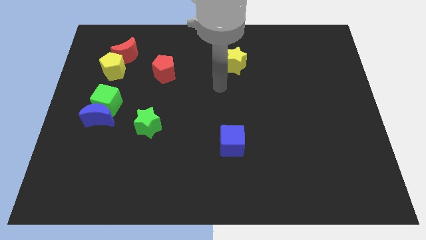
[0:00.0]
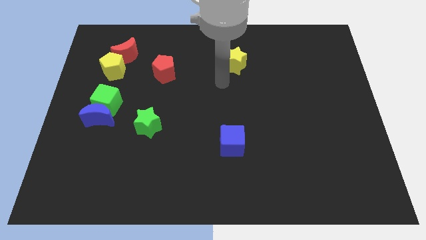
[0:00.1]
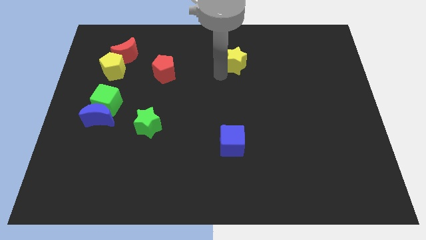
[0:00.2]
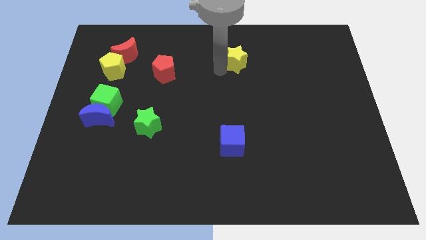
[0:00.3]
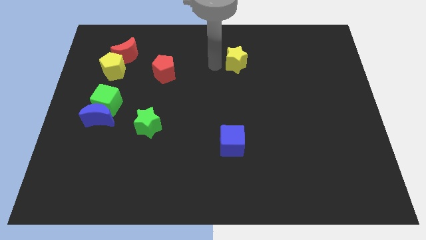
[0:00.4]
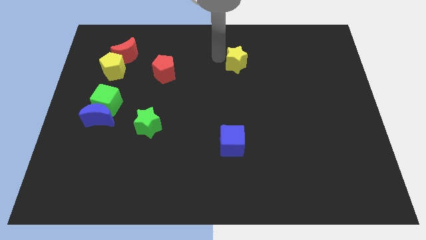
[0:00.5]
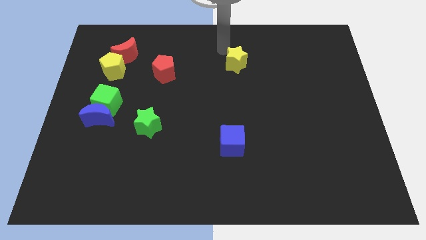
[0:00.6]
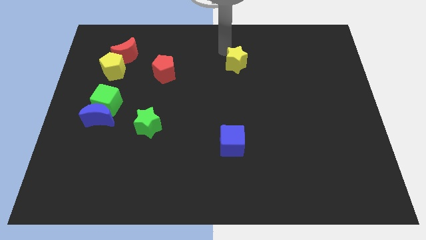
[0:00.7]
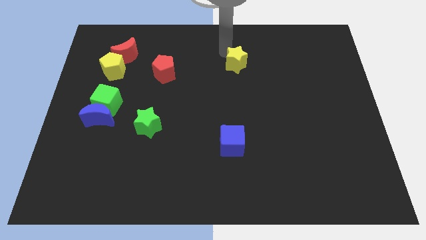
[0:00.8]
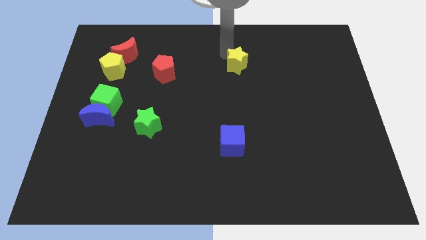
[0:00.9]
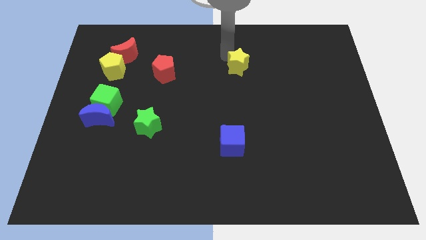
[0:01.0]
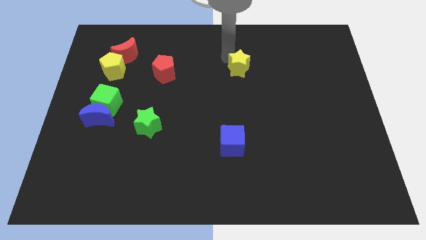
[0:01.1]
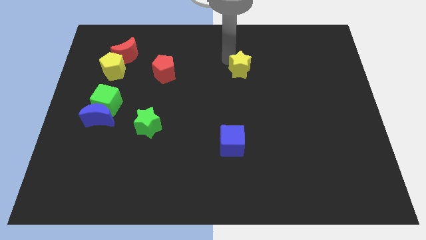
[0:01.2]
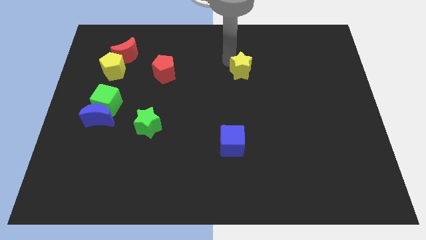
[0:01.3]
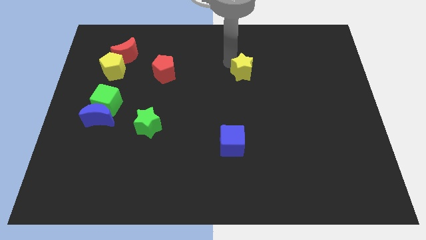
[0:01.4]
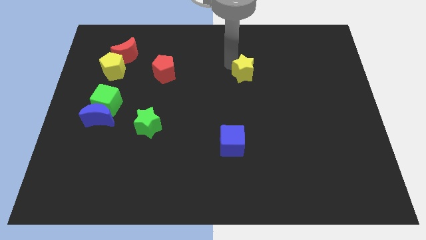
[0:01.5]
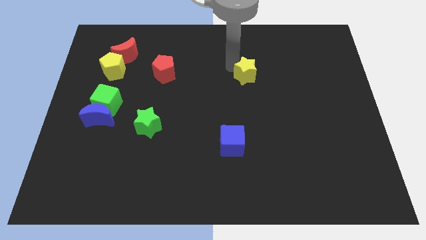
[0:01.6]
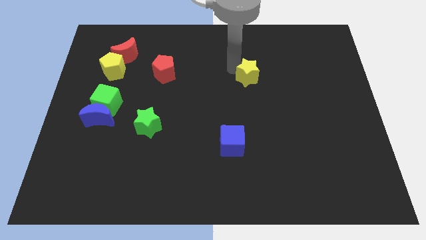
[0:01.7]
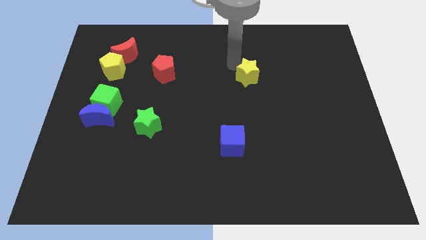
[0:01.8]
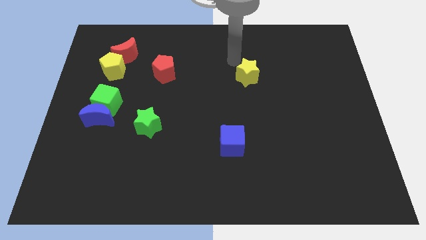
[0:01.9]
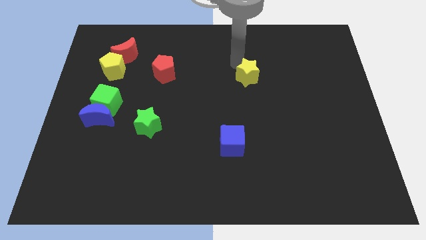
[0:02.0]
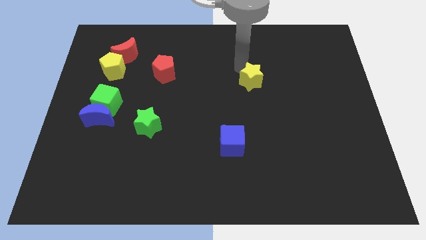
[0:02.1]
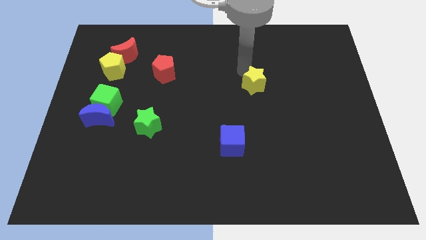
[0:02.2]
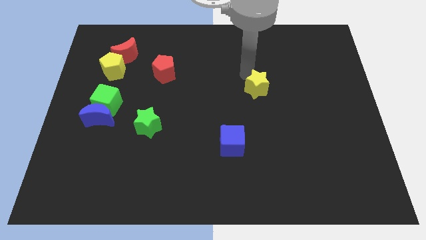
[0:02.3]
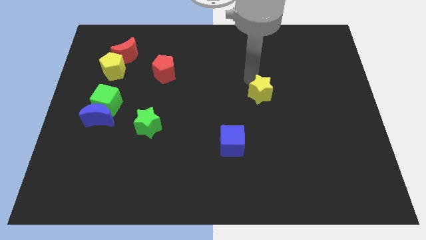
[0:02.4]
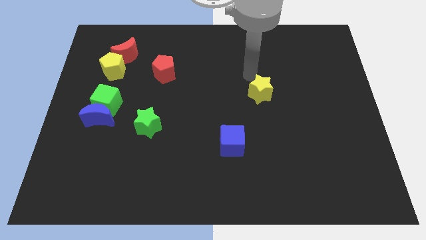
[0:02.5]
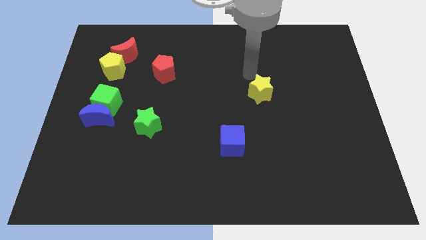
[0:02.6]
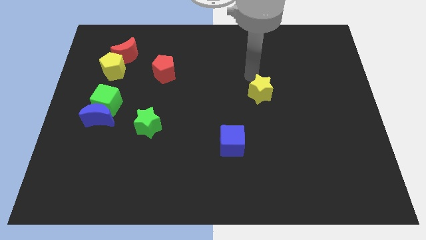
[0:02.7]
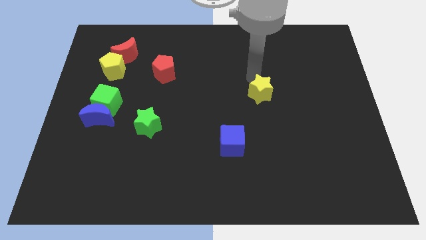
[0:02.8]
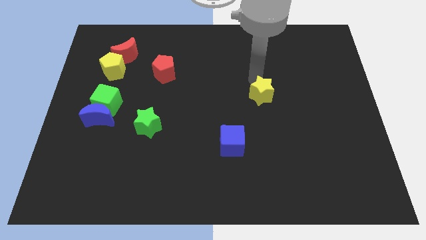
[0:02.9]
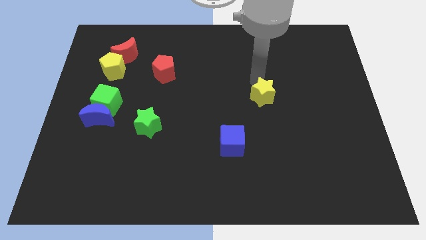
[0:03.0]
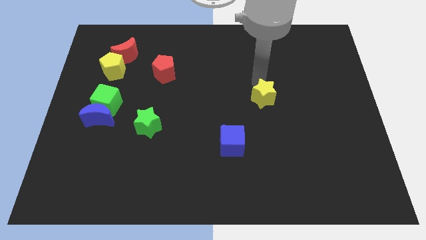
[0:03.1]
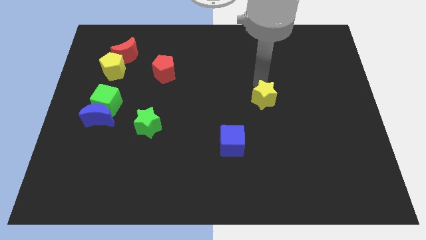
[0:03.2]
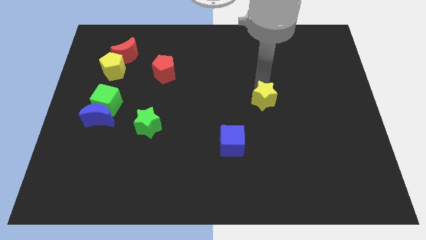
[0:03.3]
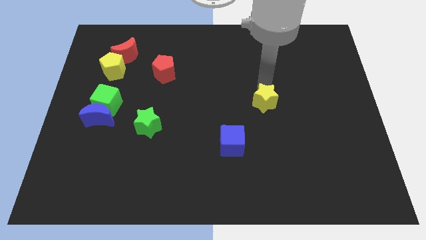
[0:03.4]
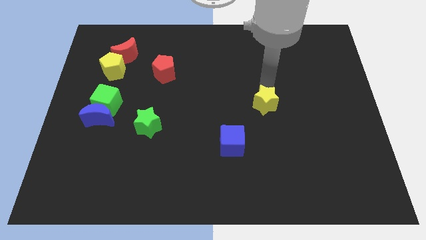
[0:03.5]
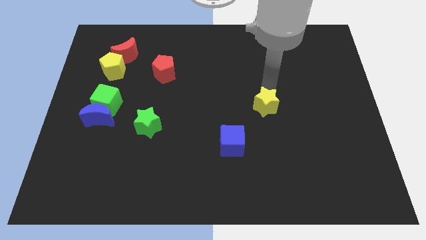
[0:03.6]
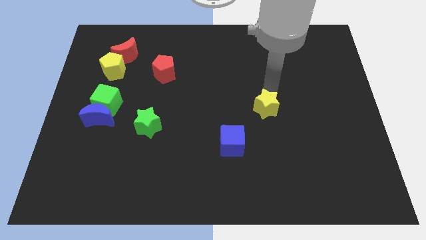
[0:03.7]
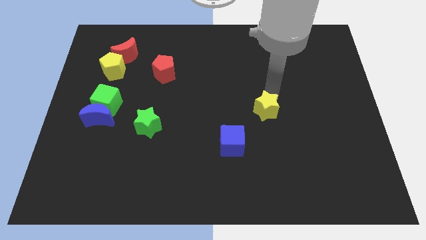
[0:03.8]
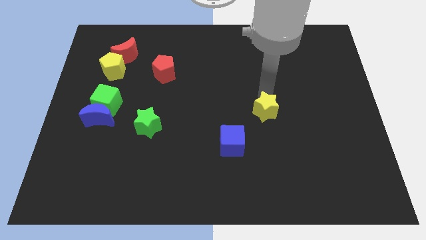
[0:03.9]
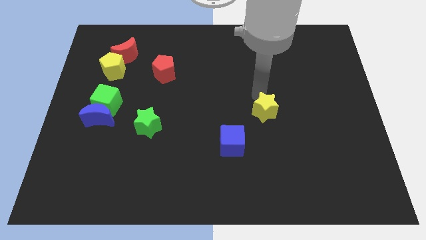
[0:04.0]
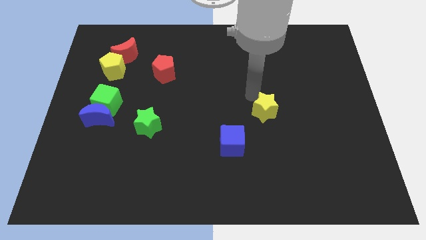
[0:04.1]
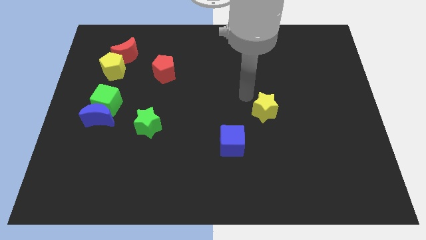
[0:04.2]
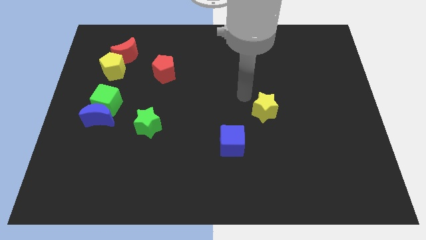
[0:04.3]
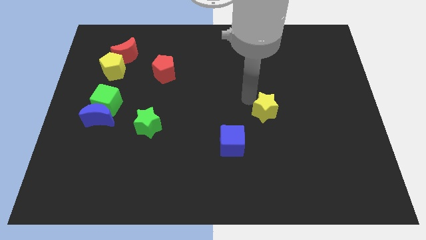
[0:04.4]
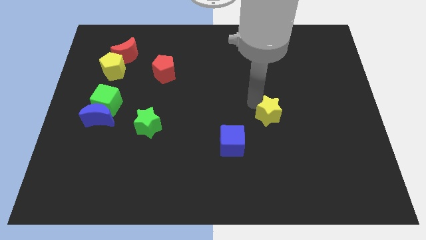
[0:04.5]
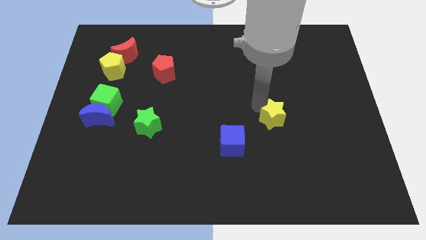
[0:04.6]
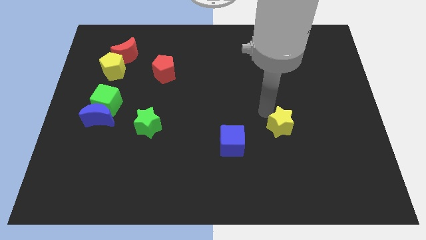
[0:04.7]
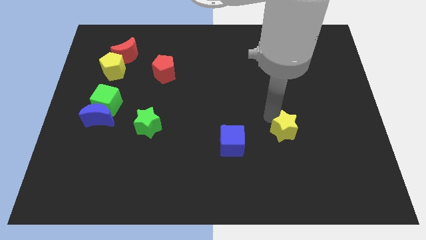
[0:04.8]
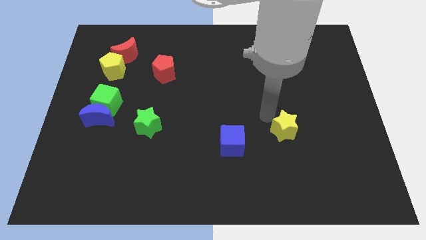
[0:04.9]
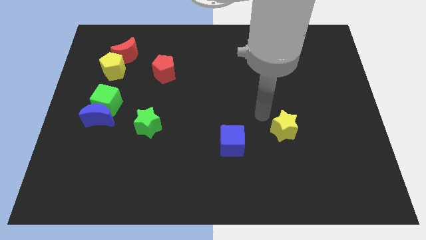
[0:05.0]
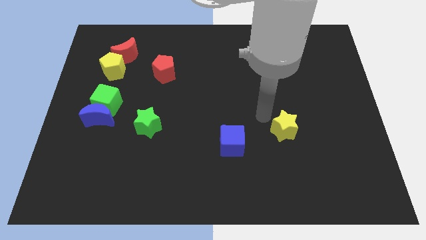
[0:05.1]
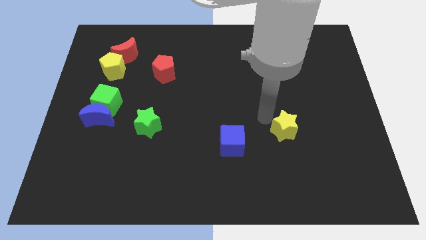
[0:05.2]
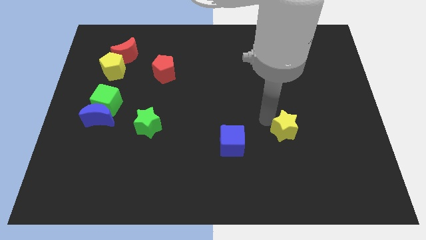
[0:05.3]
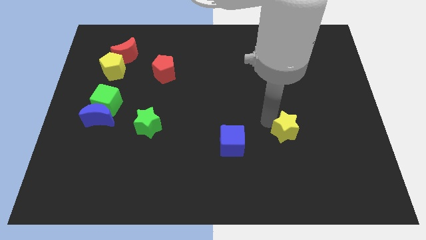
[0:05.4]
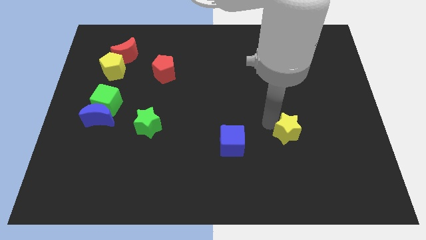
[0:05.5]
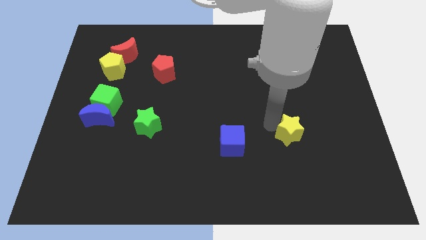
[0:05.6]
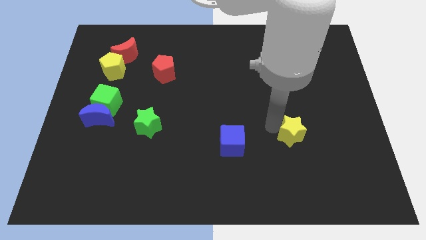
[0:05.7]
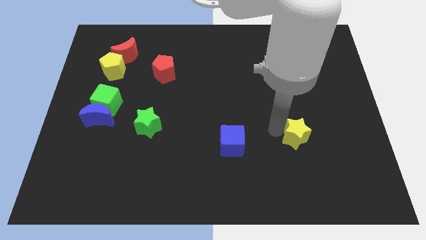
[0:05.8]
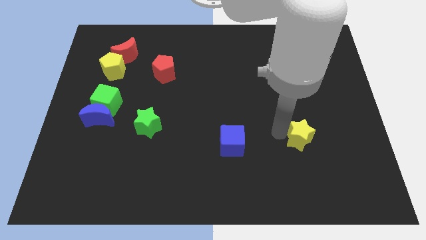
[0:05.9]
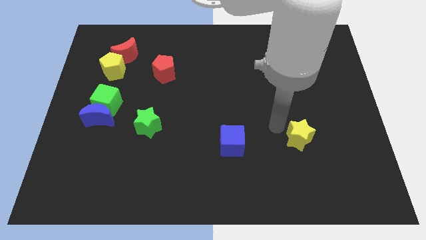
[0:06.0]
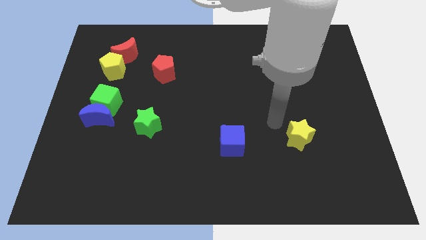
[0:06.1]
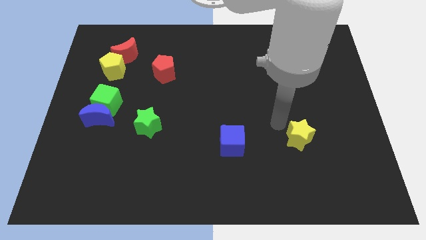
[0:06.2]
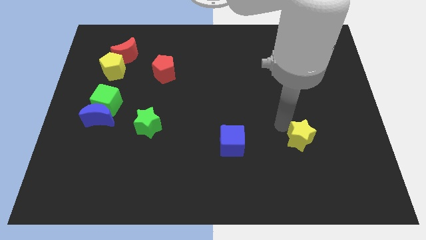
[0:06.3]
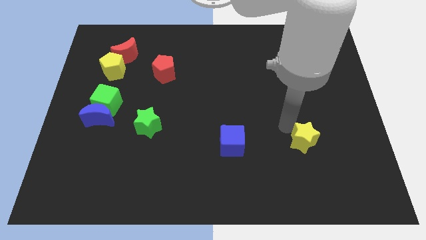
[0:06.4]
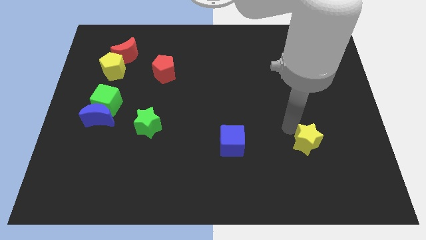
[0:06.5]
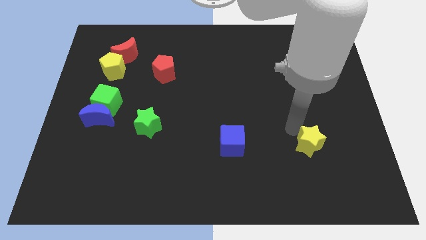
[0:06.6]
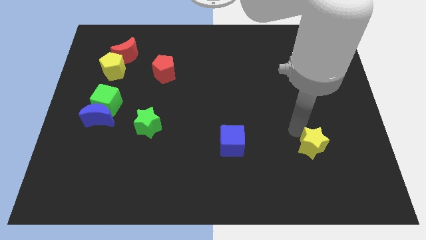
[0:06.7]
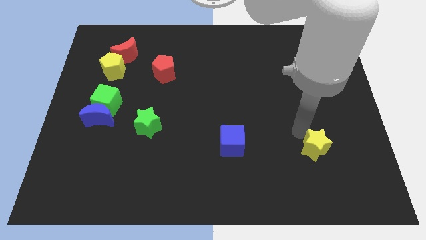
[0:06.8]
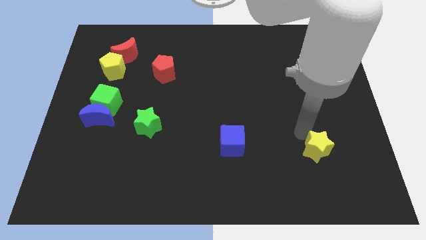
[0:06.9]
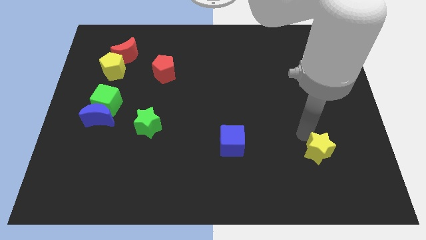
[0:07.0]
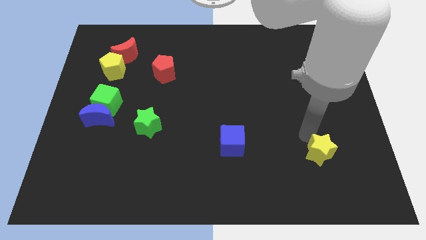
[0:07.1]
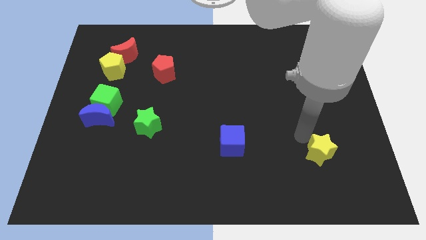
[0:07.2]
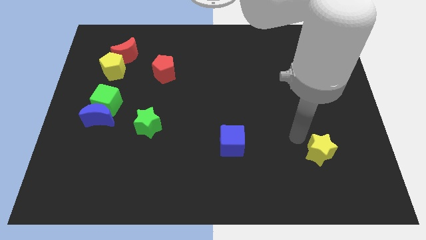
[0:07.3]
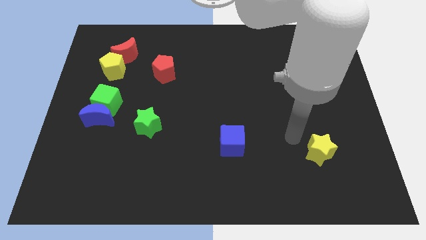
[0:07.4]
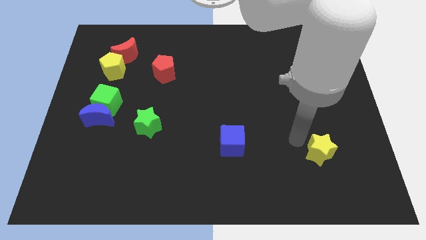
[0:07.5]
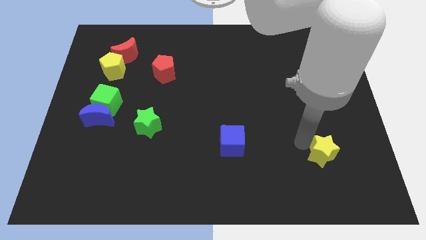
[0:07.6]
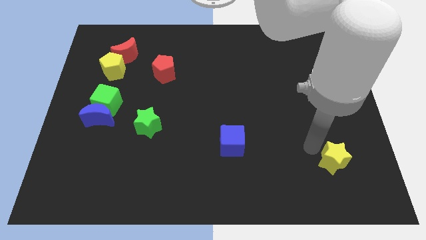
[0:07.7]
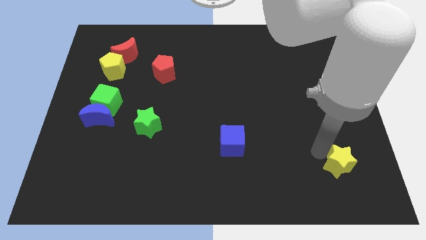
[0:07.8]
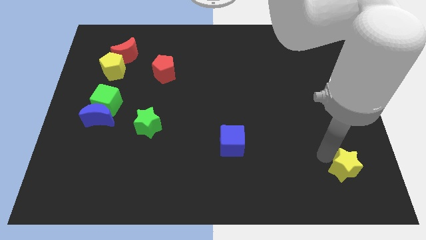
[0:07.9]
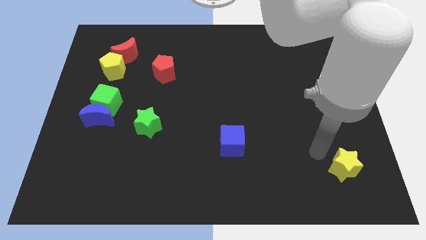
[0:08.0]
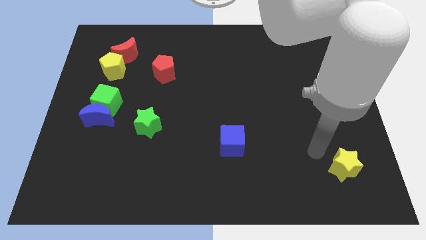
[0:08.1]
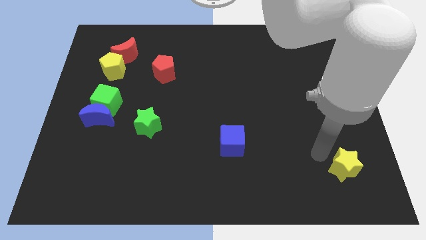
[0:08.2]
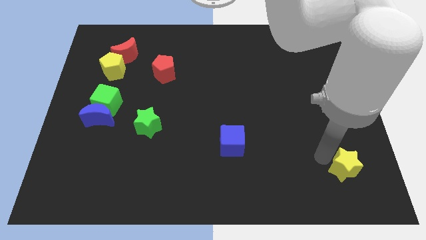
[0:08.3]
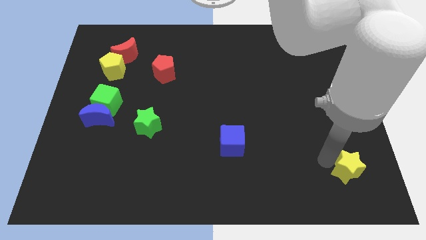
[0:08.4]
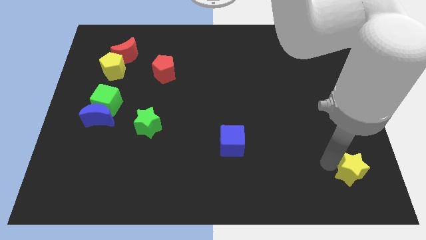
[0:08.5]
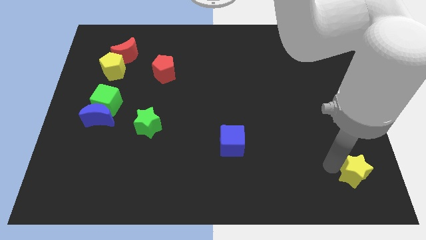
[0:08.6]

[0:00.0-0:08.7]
put the yellow star to the lower right corner
